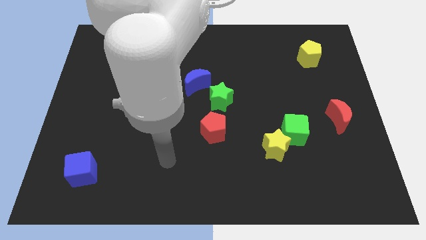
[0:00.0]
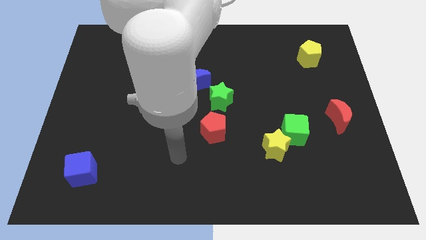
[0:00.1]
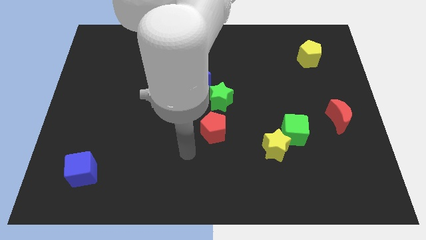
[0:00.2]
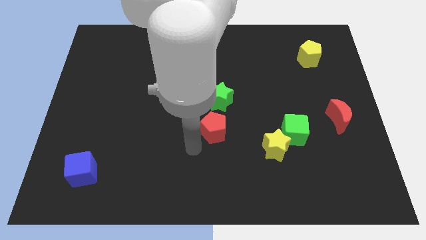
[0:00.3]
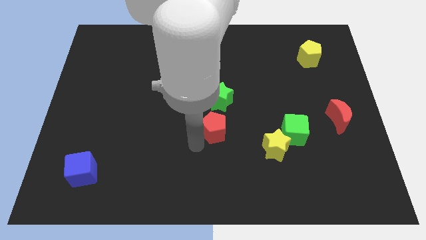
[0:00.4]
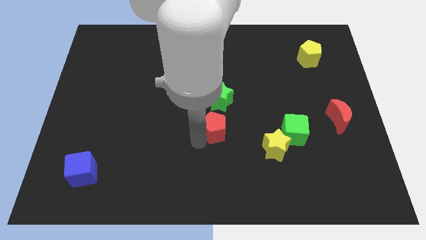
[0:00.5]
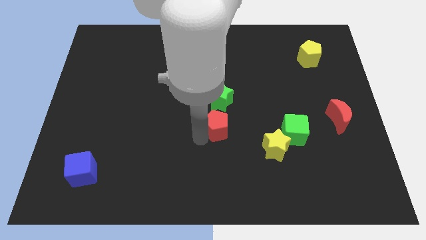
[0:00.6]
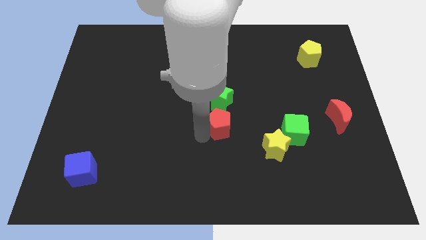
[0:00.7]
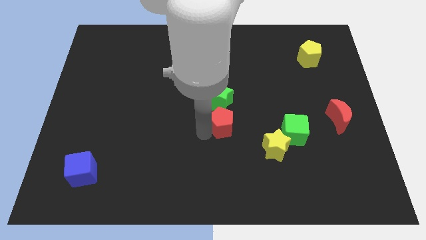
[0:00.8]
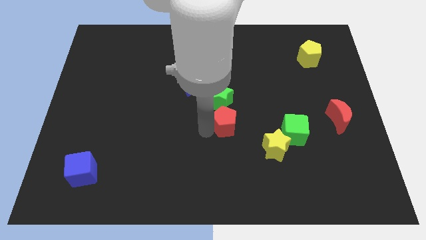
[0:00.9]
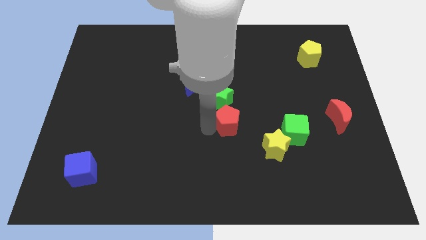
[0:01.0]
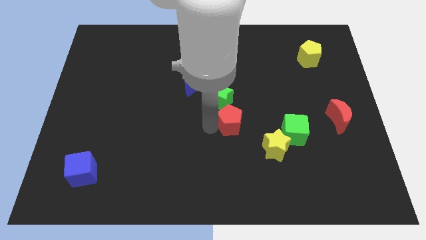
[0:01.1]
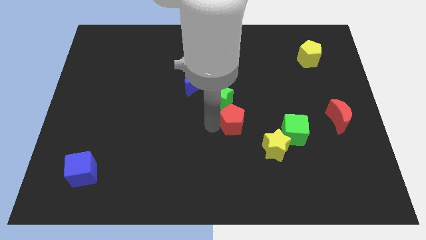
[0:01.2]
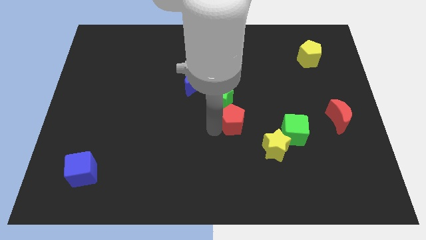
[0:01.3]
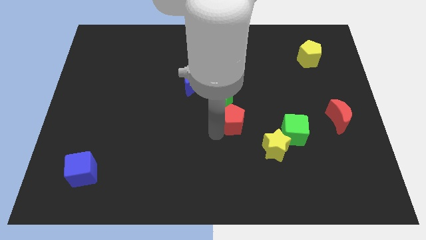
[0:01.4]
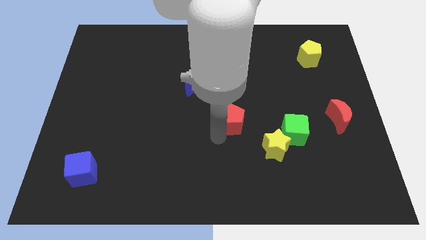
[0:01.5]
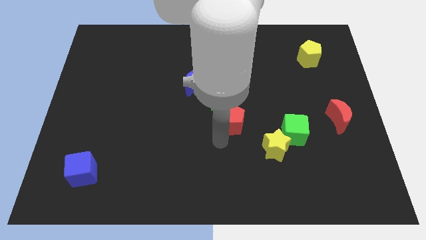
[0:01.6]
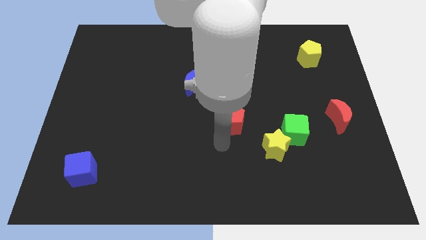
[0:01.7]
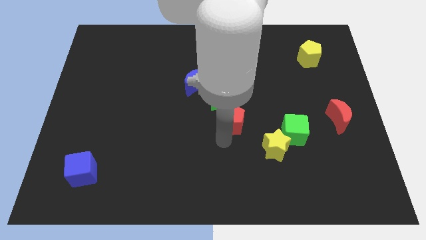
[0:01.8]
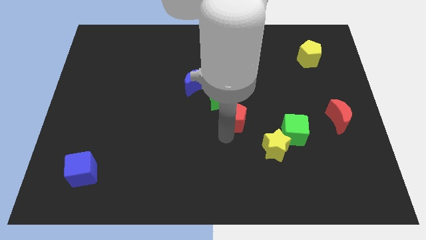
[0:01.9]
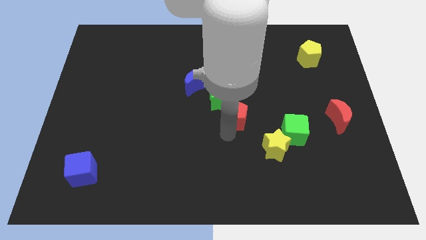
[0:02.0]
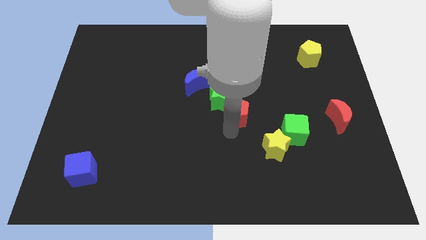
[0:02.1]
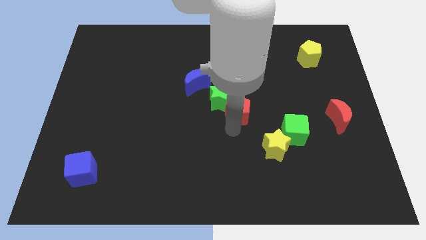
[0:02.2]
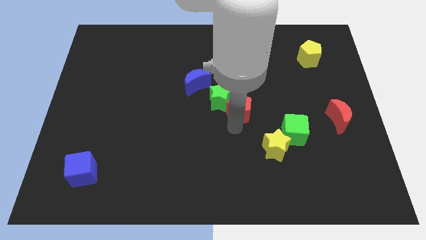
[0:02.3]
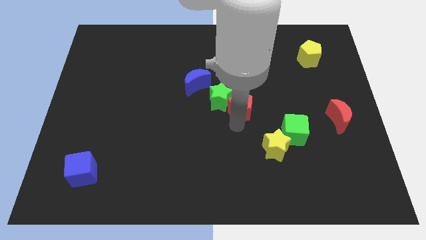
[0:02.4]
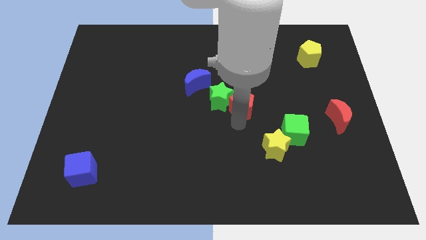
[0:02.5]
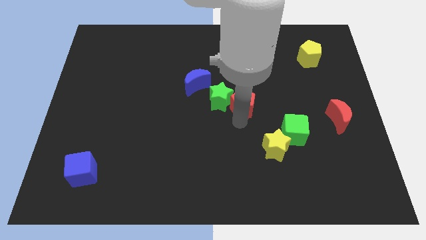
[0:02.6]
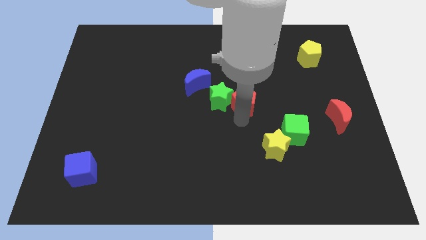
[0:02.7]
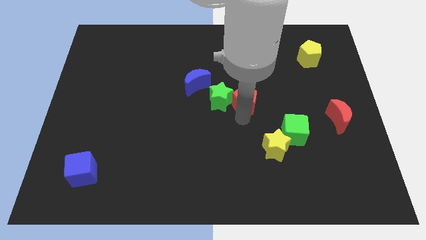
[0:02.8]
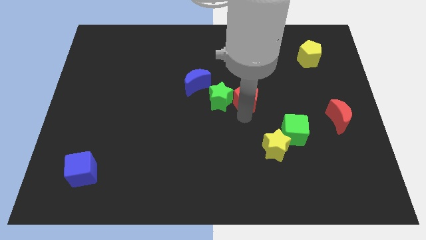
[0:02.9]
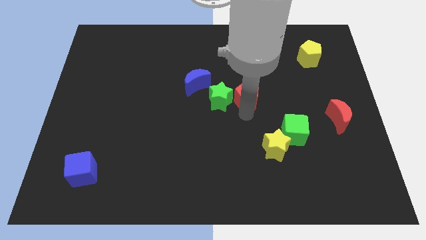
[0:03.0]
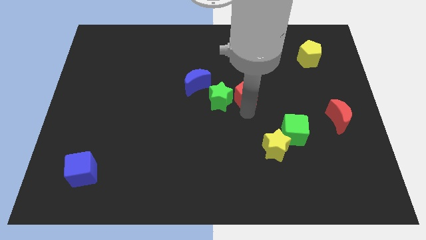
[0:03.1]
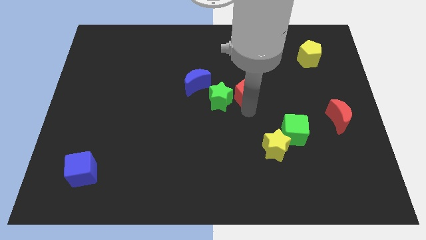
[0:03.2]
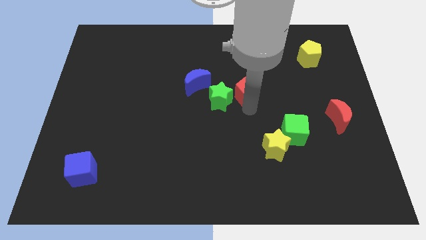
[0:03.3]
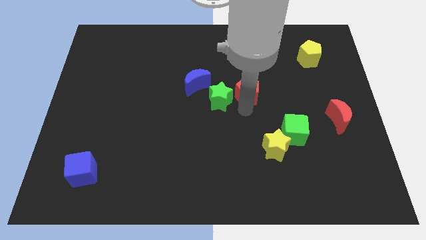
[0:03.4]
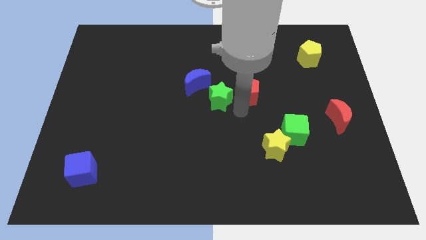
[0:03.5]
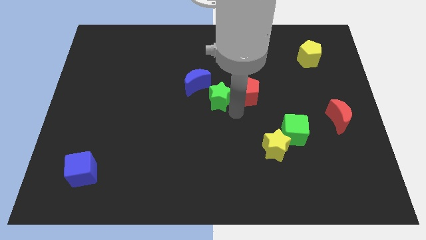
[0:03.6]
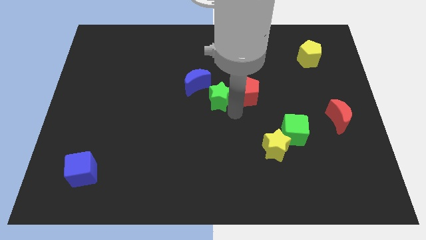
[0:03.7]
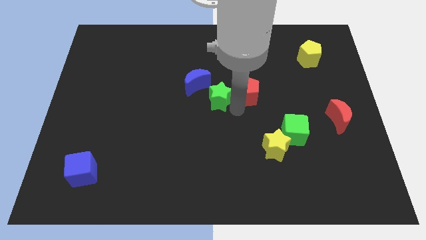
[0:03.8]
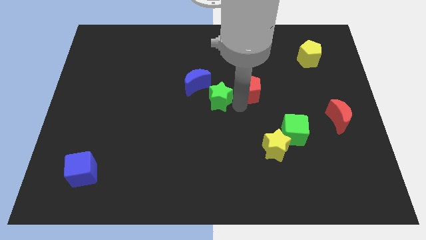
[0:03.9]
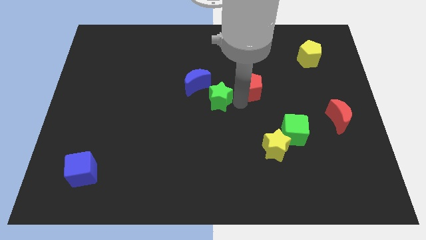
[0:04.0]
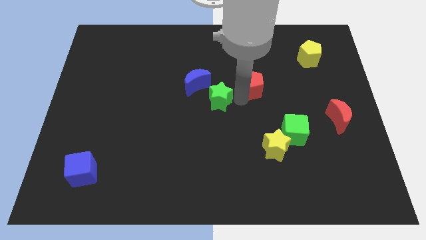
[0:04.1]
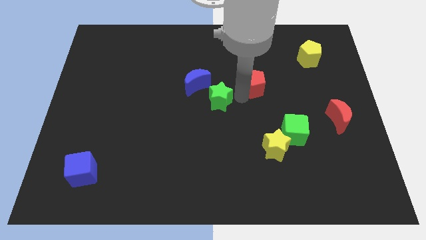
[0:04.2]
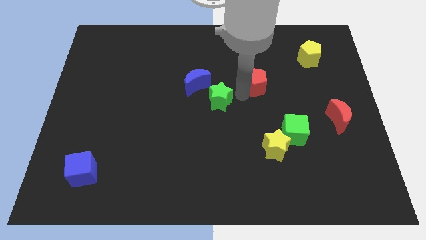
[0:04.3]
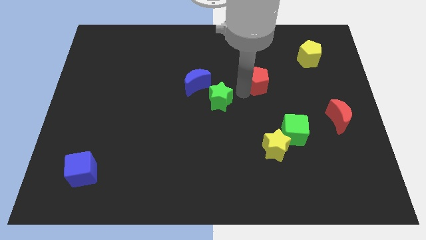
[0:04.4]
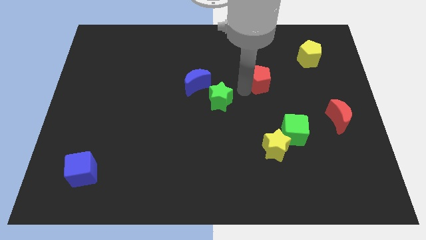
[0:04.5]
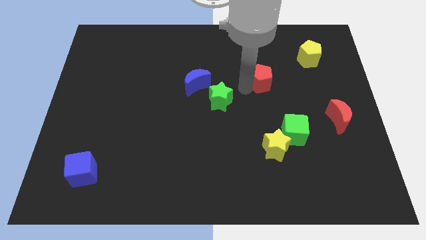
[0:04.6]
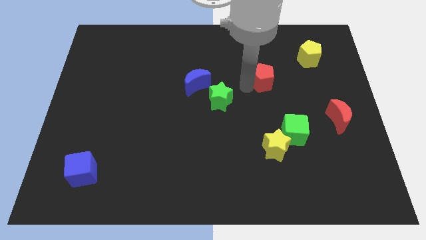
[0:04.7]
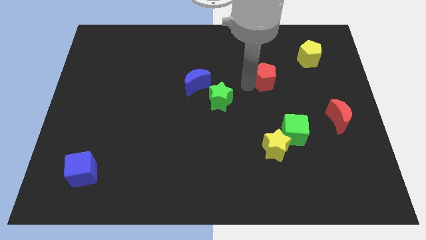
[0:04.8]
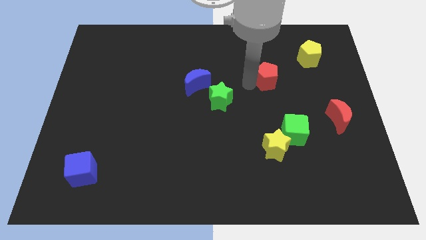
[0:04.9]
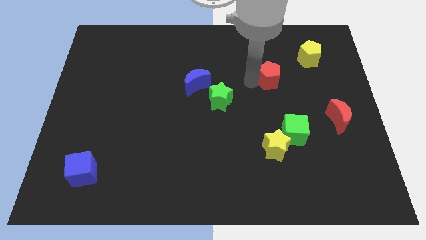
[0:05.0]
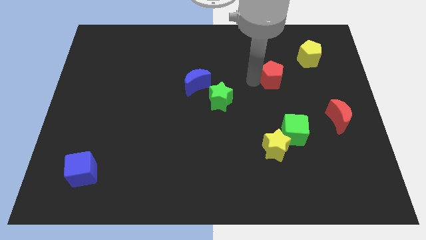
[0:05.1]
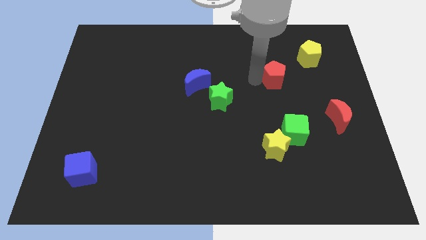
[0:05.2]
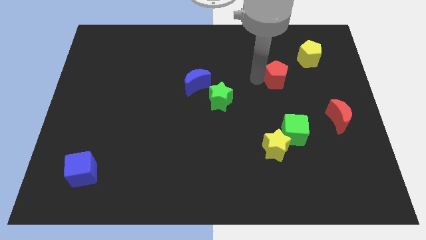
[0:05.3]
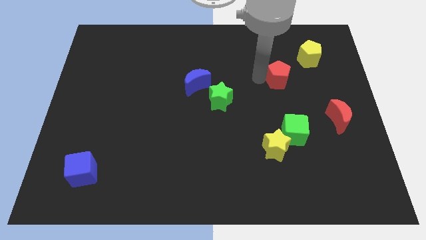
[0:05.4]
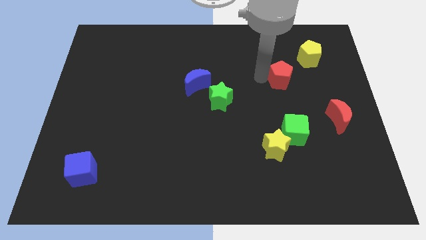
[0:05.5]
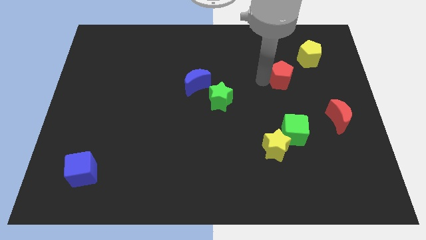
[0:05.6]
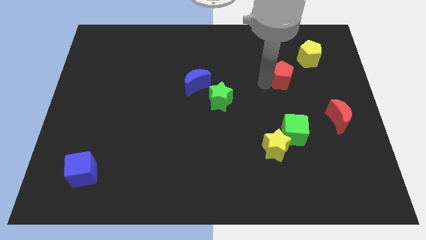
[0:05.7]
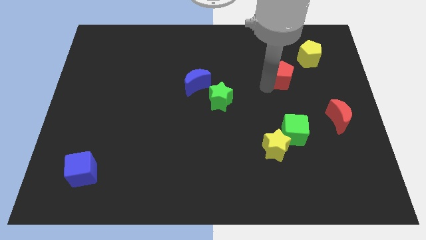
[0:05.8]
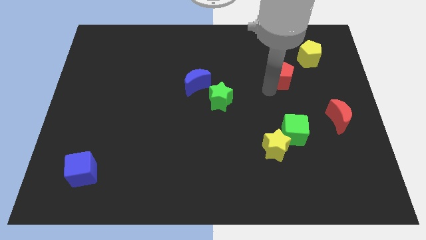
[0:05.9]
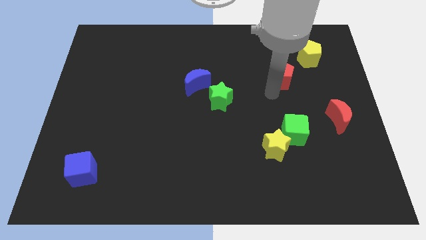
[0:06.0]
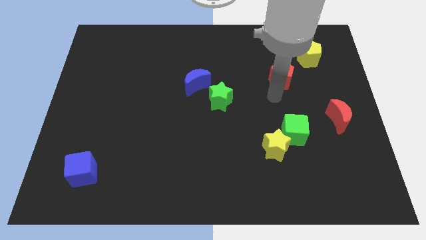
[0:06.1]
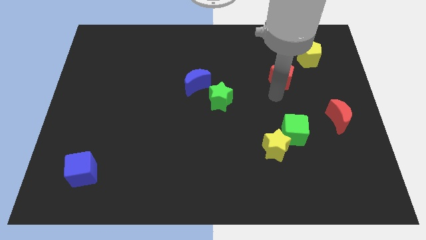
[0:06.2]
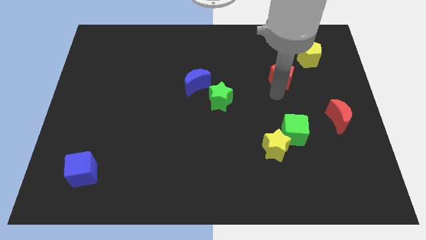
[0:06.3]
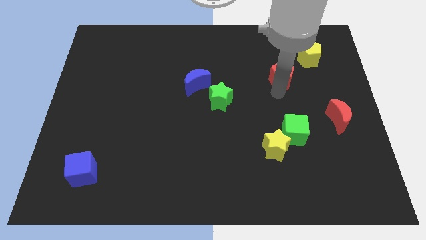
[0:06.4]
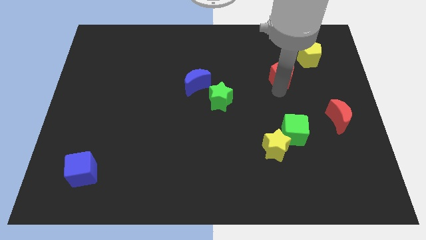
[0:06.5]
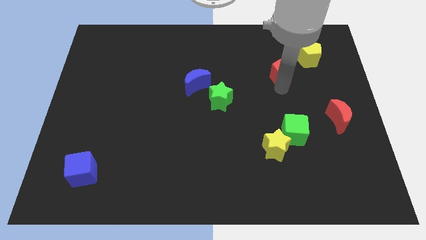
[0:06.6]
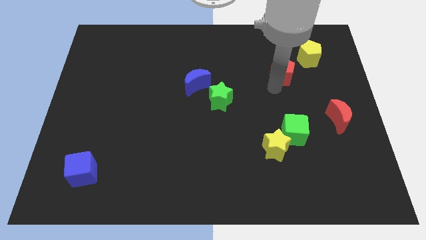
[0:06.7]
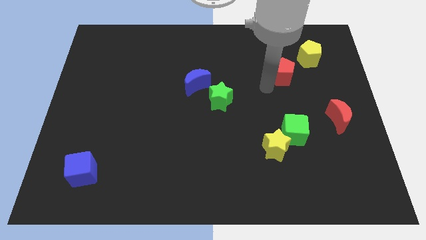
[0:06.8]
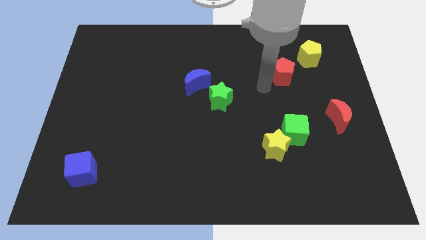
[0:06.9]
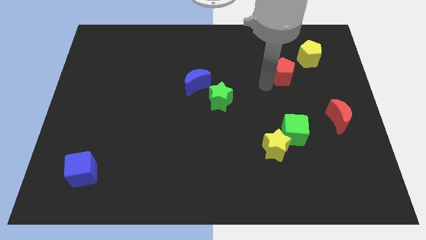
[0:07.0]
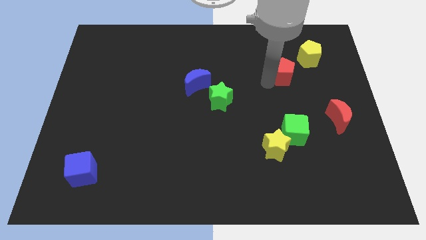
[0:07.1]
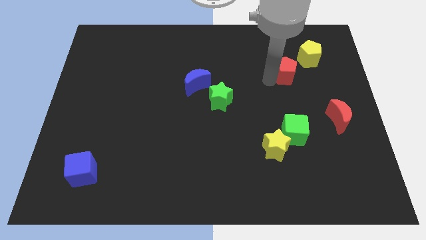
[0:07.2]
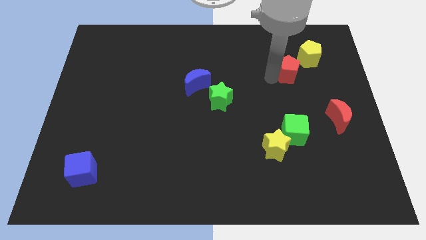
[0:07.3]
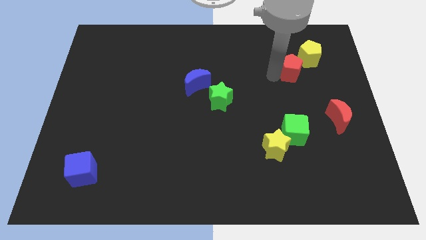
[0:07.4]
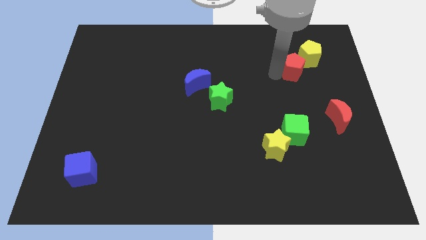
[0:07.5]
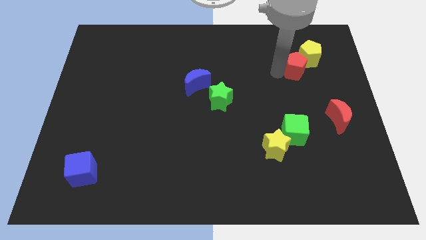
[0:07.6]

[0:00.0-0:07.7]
move the red pentagon next to the yellow pentagon
